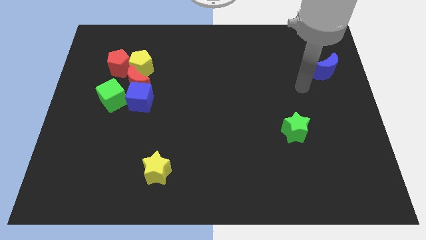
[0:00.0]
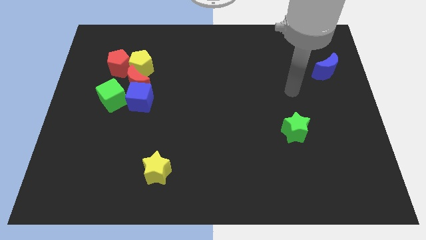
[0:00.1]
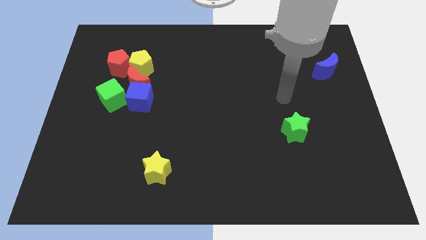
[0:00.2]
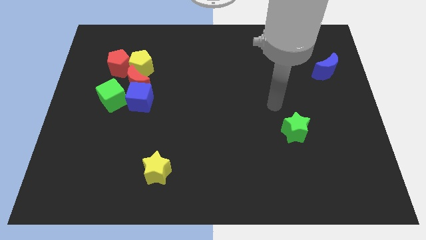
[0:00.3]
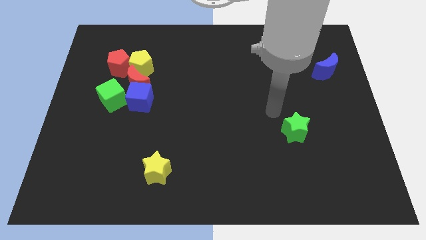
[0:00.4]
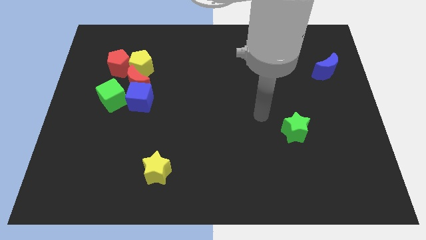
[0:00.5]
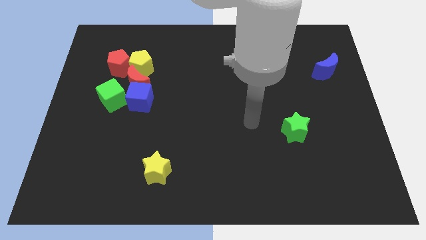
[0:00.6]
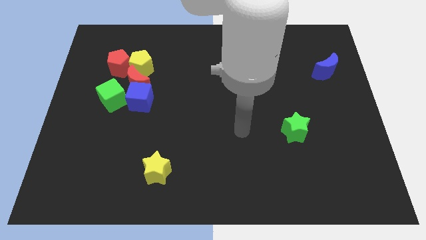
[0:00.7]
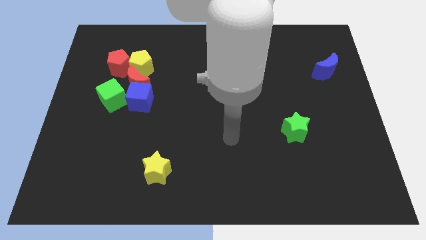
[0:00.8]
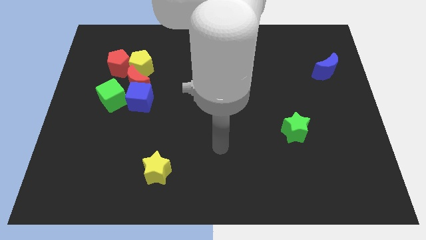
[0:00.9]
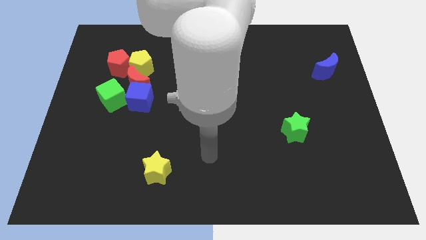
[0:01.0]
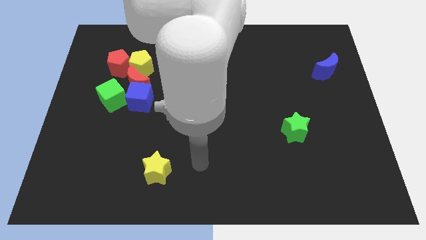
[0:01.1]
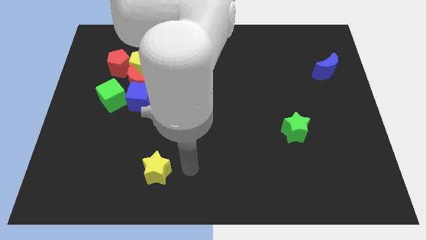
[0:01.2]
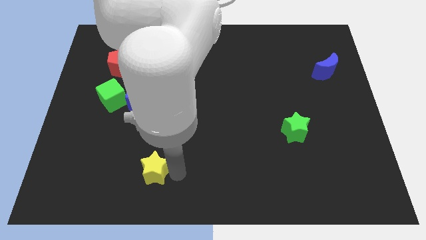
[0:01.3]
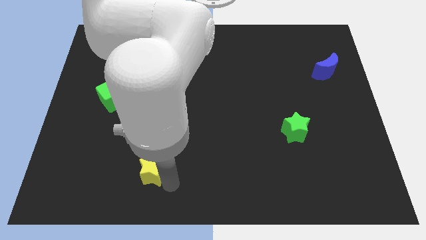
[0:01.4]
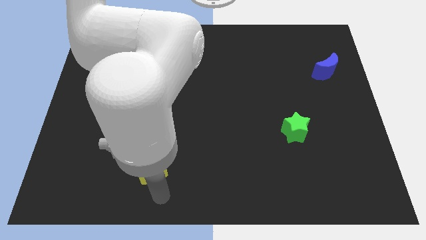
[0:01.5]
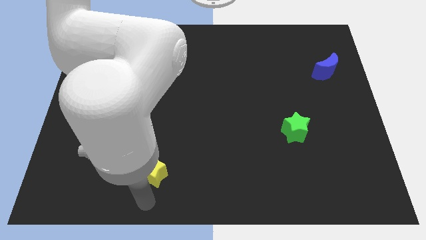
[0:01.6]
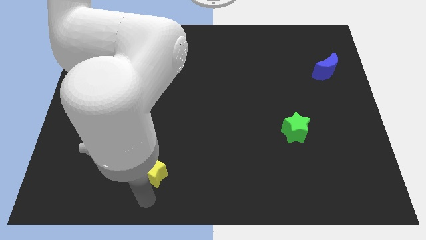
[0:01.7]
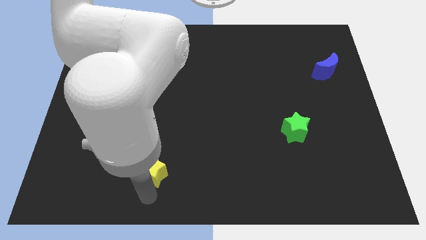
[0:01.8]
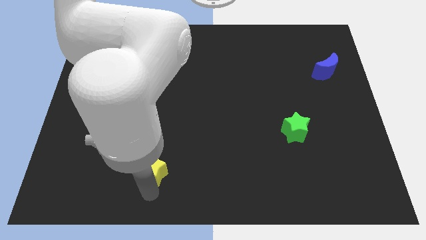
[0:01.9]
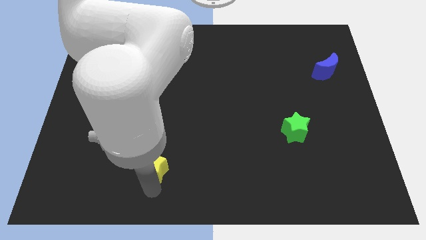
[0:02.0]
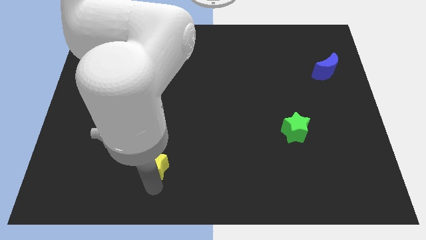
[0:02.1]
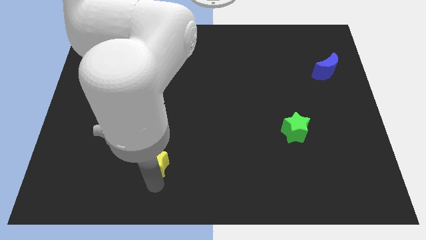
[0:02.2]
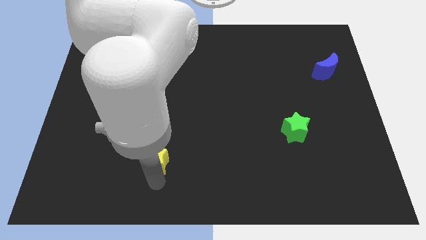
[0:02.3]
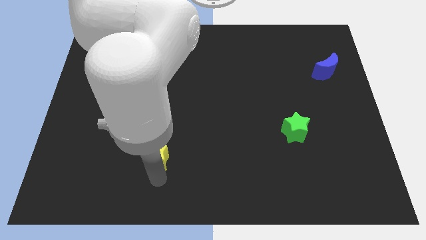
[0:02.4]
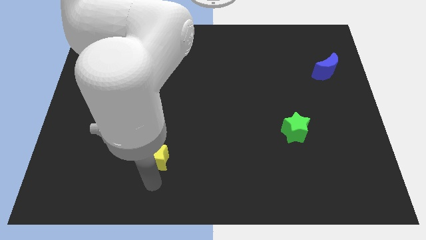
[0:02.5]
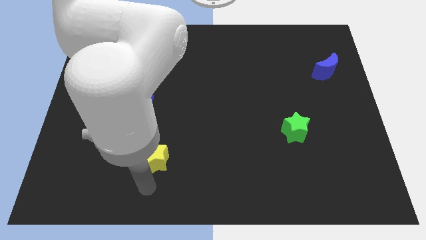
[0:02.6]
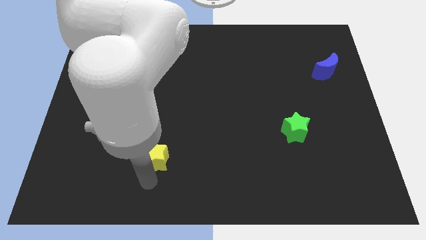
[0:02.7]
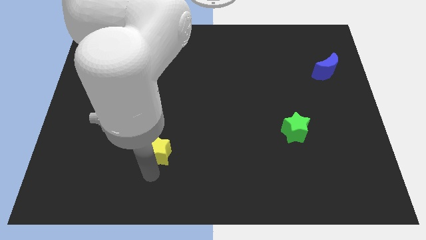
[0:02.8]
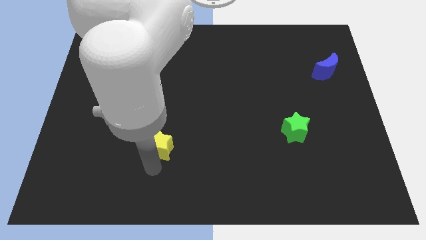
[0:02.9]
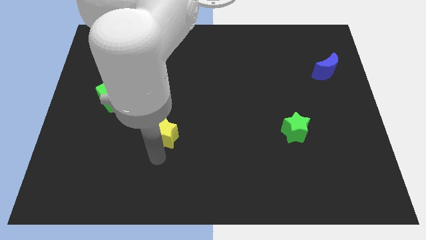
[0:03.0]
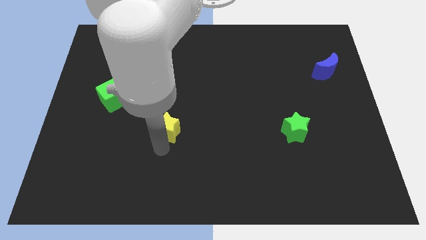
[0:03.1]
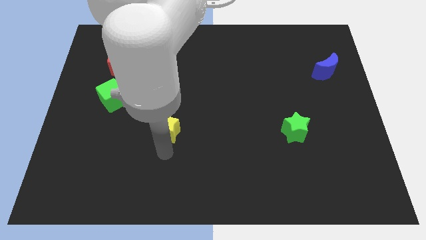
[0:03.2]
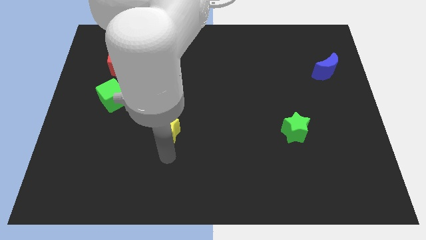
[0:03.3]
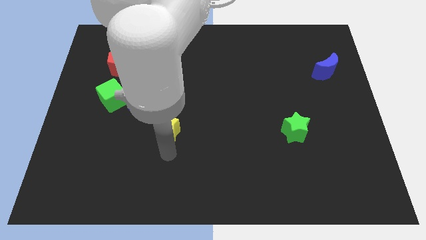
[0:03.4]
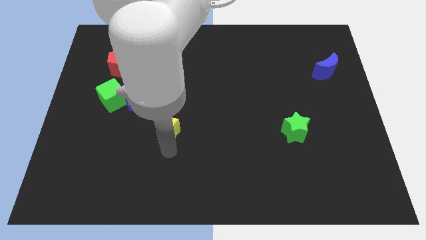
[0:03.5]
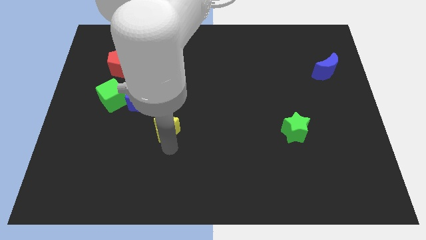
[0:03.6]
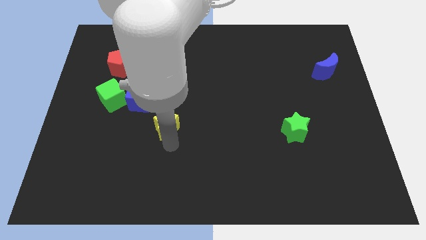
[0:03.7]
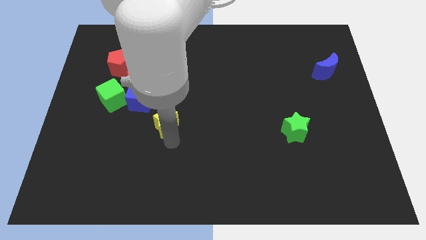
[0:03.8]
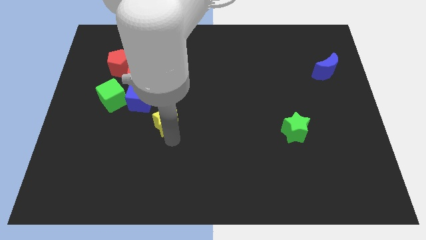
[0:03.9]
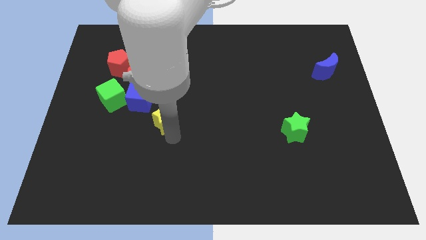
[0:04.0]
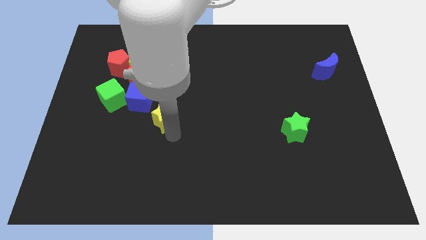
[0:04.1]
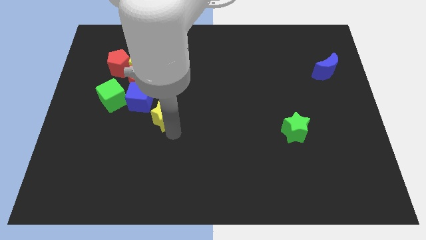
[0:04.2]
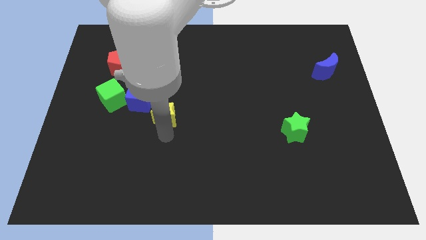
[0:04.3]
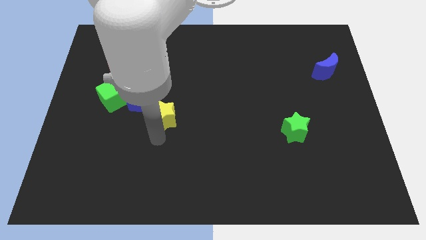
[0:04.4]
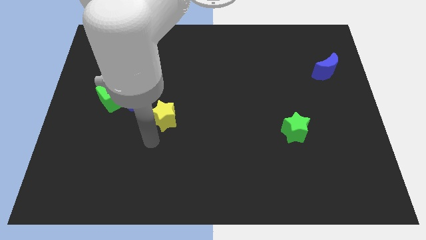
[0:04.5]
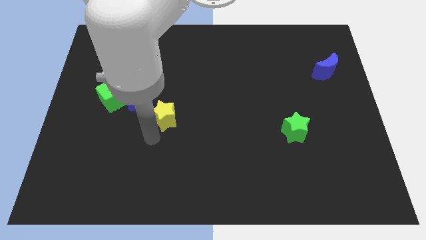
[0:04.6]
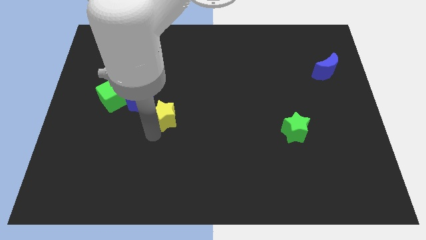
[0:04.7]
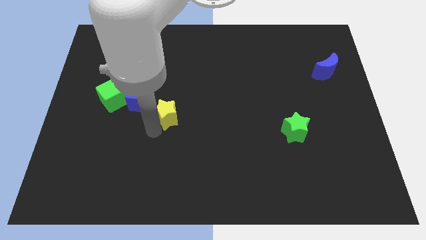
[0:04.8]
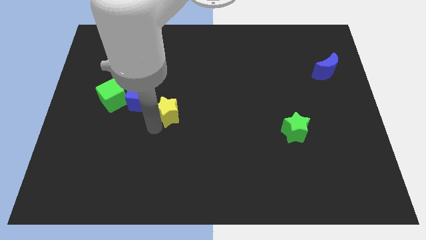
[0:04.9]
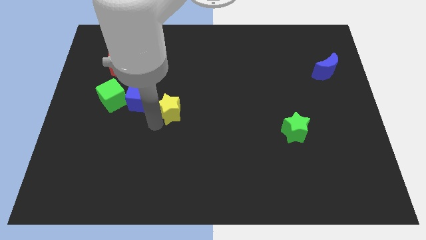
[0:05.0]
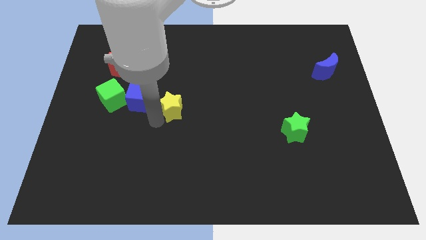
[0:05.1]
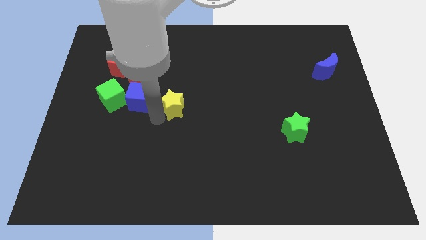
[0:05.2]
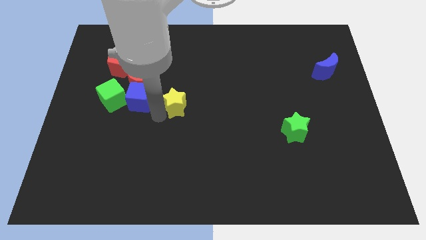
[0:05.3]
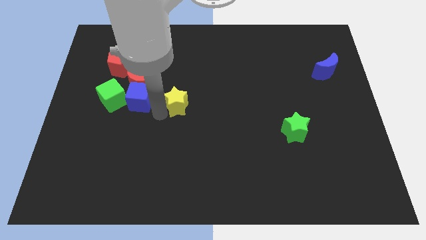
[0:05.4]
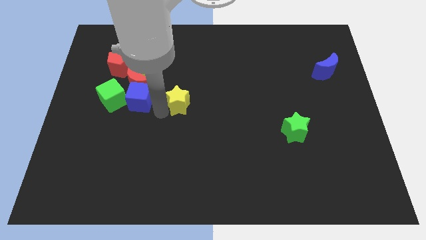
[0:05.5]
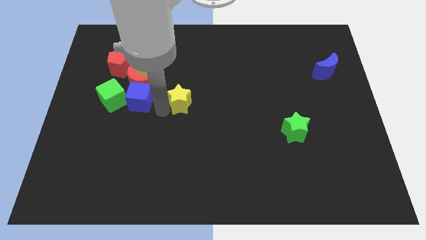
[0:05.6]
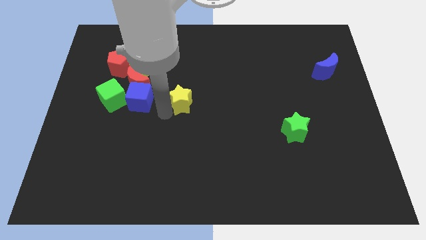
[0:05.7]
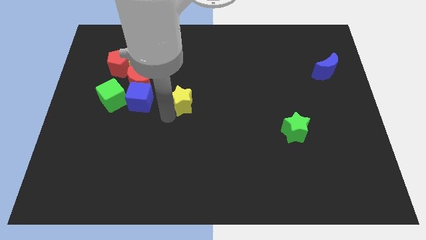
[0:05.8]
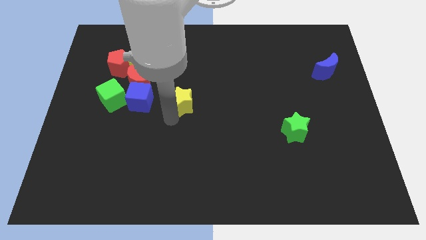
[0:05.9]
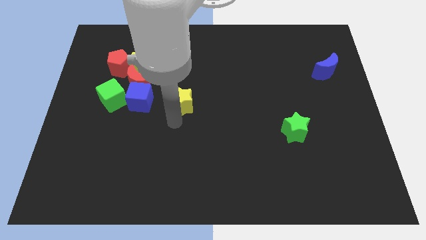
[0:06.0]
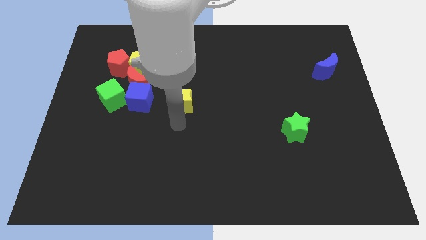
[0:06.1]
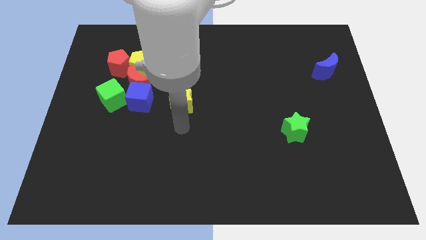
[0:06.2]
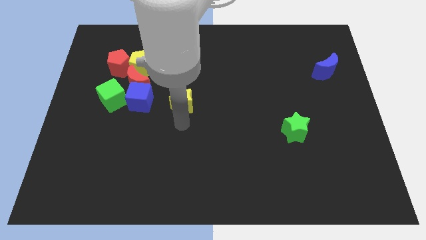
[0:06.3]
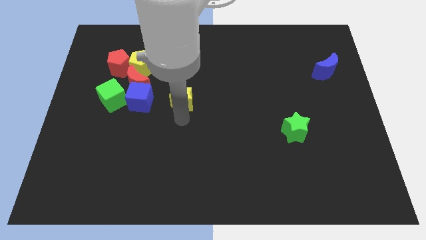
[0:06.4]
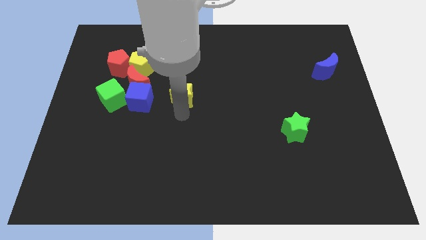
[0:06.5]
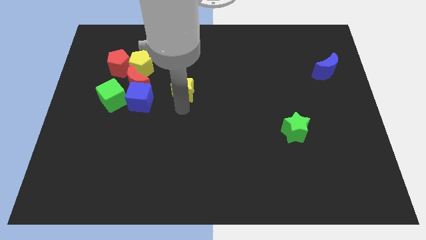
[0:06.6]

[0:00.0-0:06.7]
move the yellow star upwards

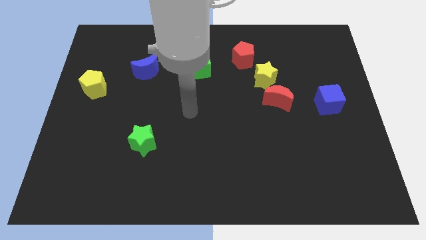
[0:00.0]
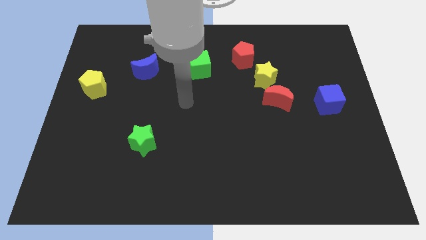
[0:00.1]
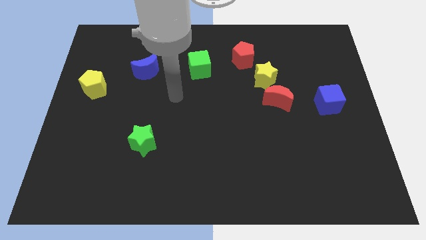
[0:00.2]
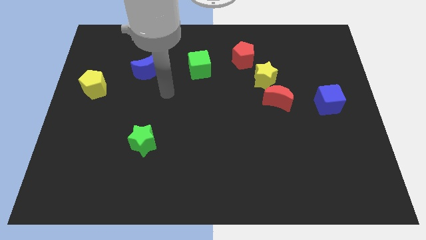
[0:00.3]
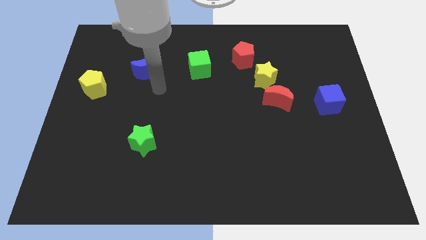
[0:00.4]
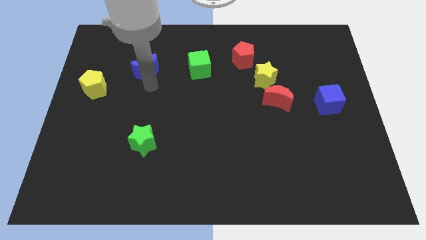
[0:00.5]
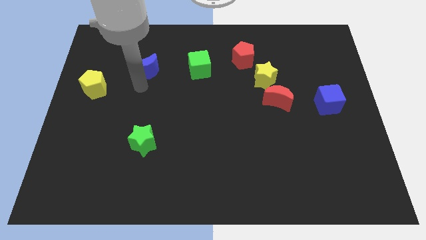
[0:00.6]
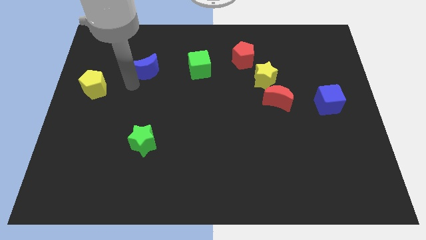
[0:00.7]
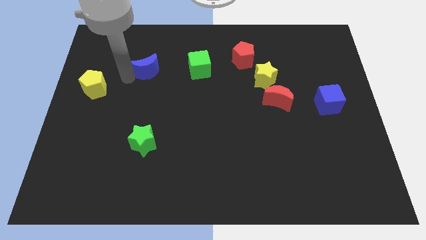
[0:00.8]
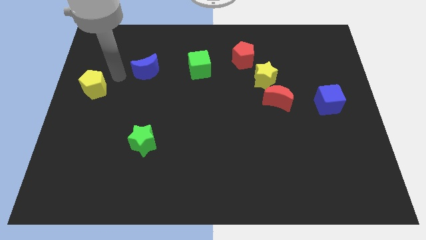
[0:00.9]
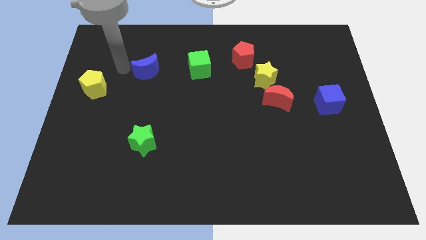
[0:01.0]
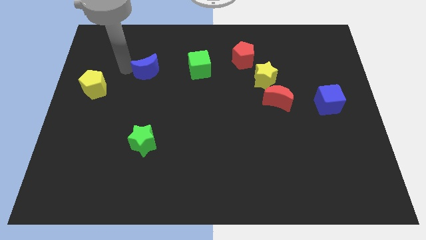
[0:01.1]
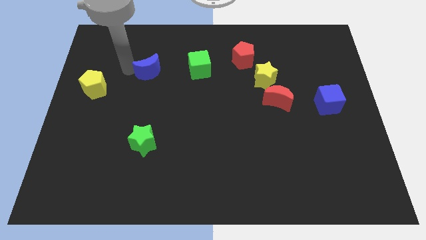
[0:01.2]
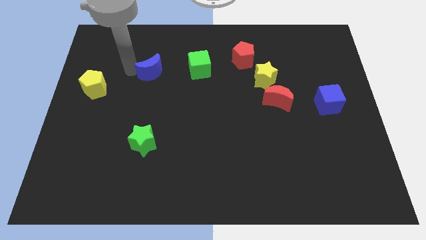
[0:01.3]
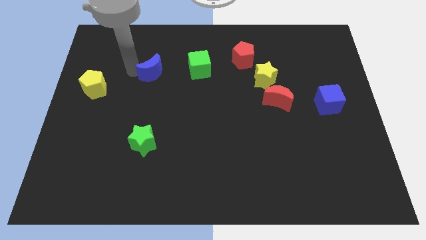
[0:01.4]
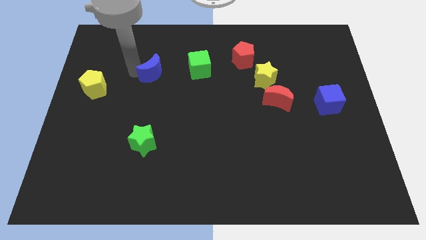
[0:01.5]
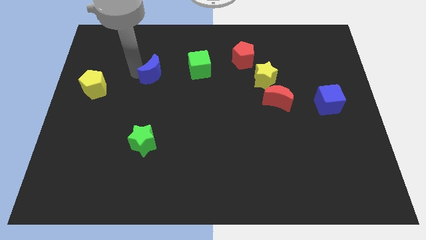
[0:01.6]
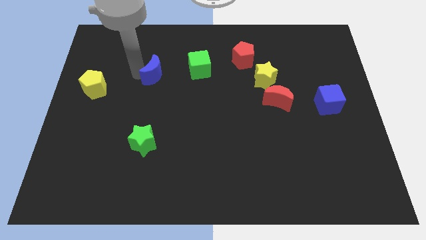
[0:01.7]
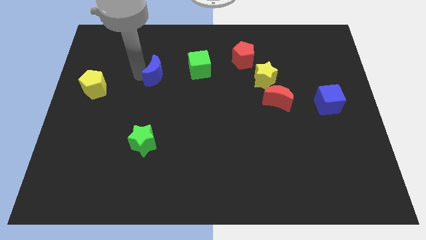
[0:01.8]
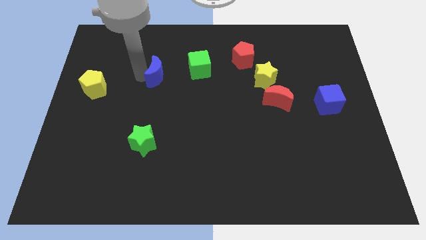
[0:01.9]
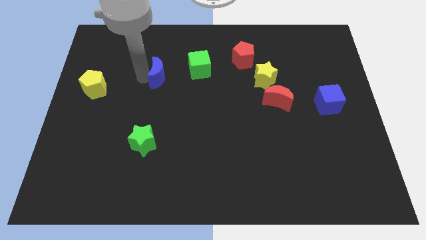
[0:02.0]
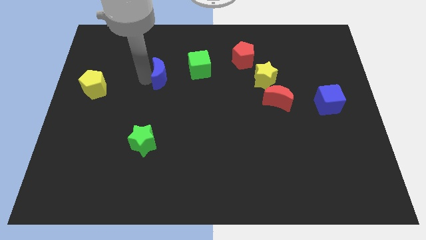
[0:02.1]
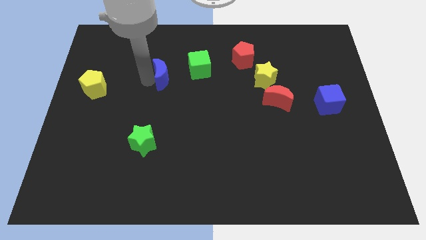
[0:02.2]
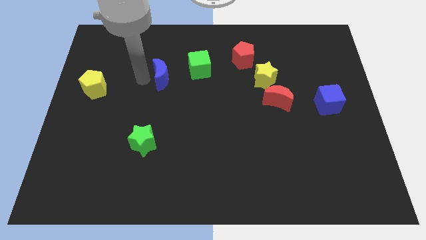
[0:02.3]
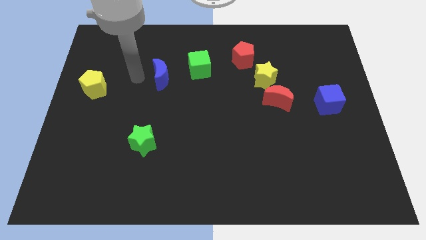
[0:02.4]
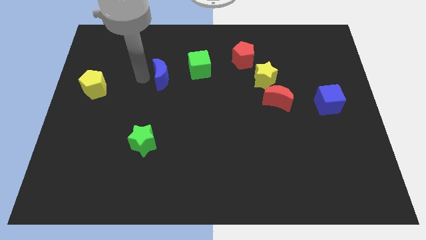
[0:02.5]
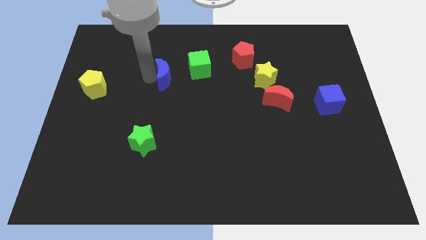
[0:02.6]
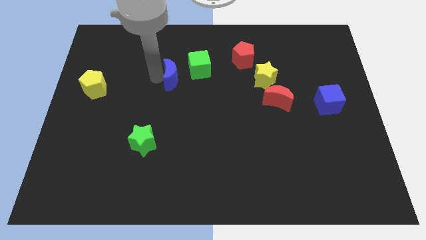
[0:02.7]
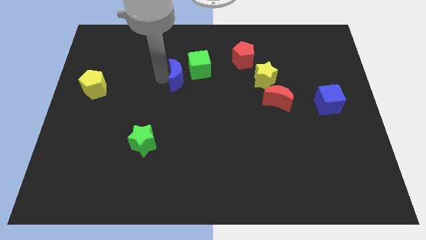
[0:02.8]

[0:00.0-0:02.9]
slightly push the blue moon to the right
